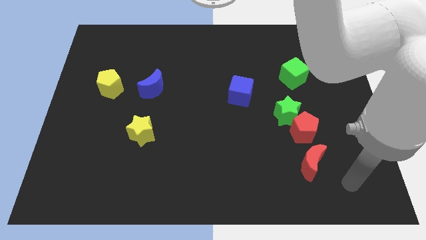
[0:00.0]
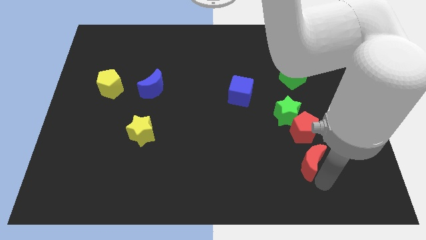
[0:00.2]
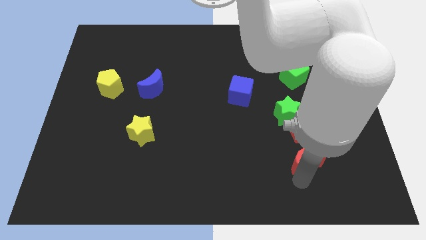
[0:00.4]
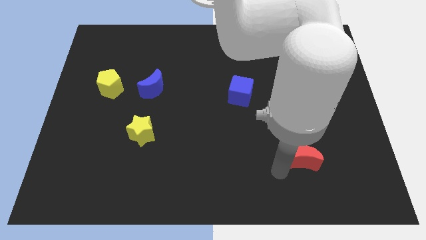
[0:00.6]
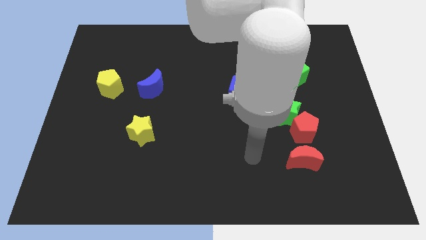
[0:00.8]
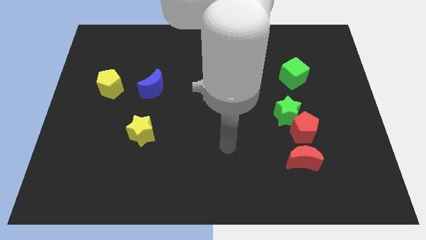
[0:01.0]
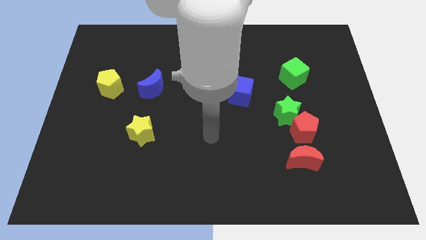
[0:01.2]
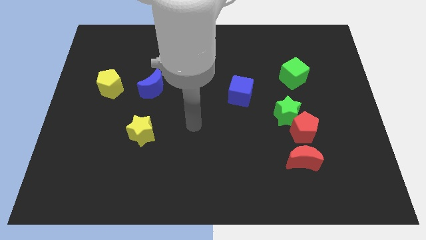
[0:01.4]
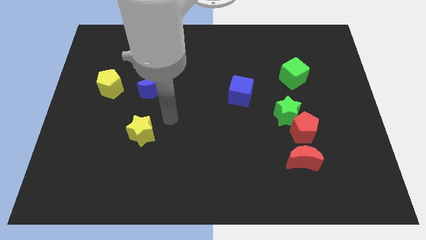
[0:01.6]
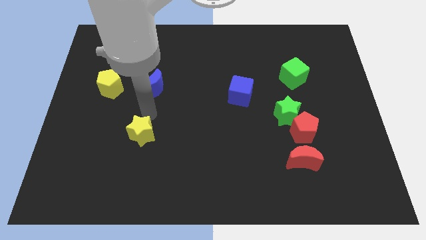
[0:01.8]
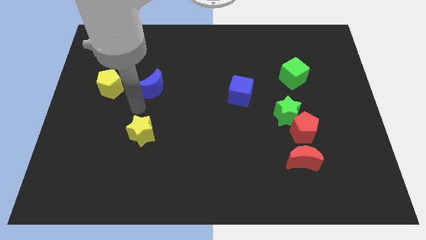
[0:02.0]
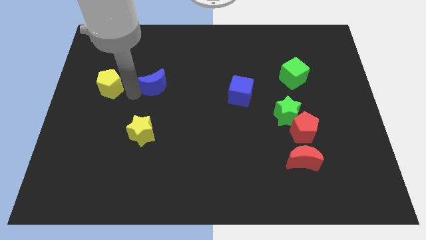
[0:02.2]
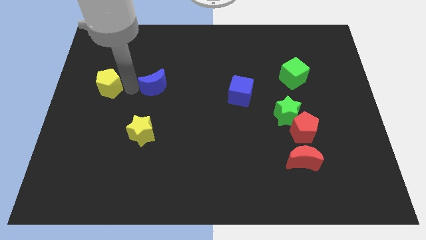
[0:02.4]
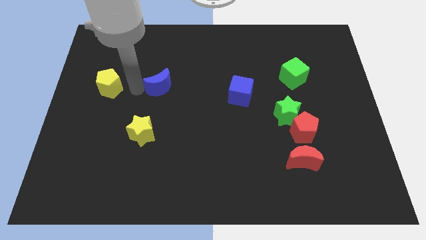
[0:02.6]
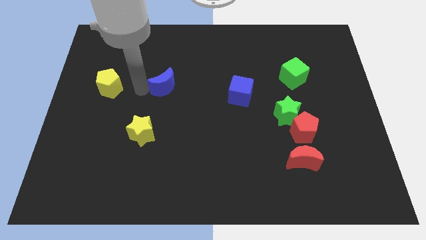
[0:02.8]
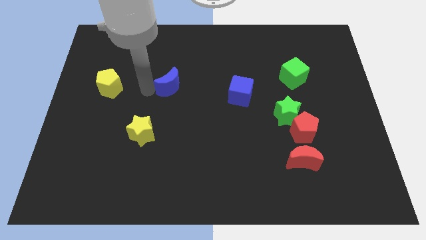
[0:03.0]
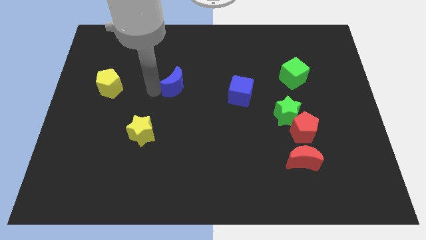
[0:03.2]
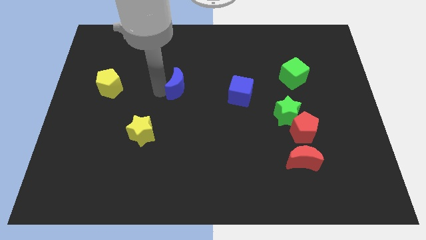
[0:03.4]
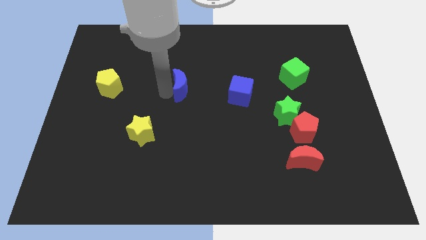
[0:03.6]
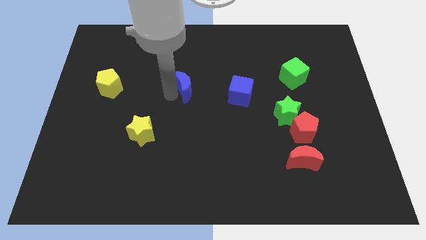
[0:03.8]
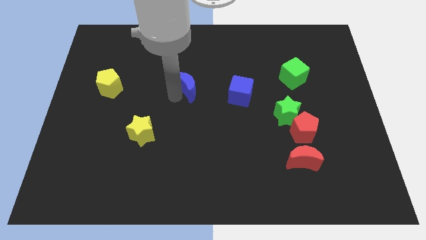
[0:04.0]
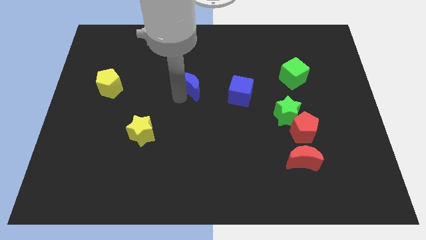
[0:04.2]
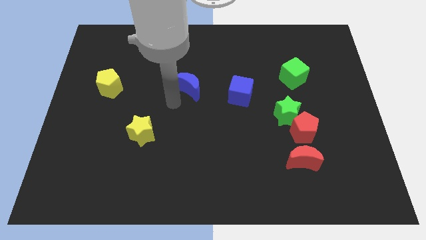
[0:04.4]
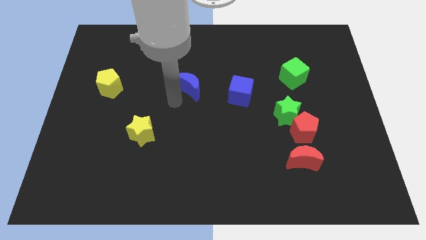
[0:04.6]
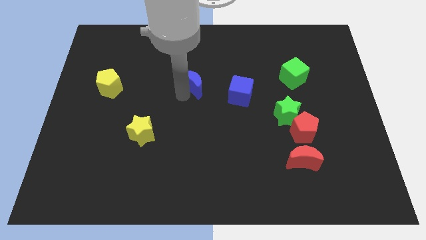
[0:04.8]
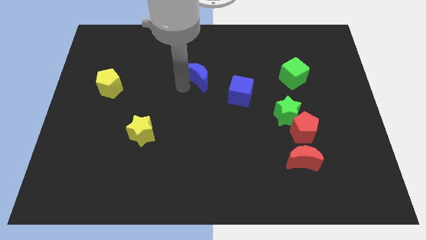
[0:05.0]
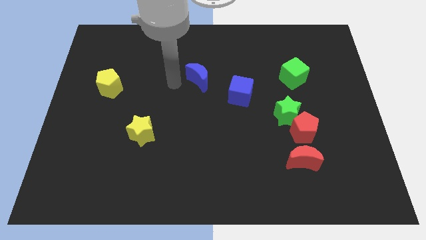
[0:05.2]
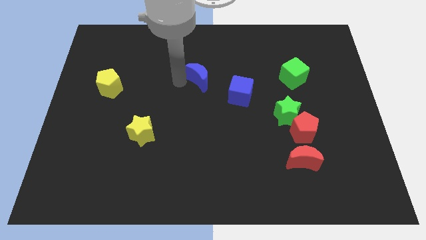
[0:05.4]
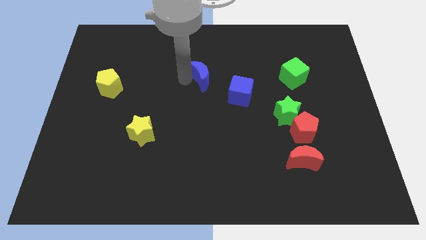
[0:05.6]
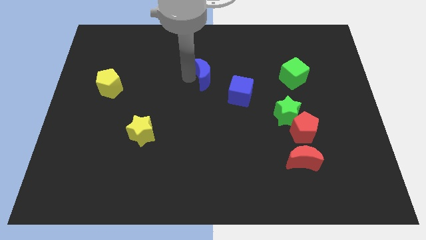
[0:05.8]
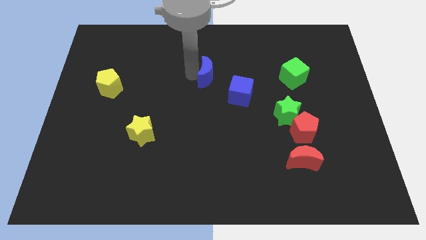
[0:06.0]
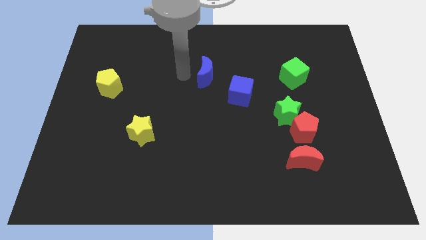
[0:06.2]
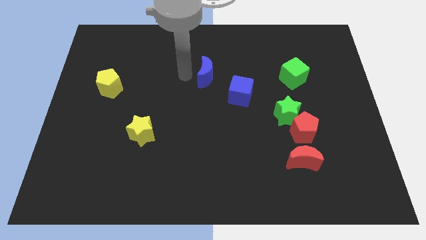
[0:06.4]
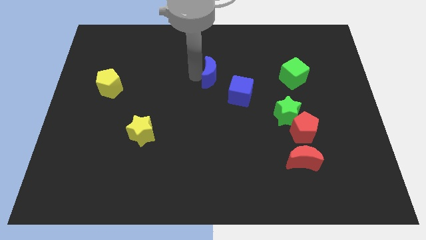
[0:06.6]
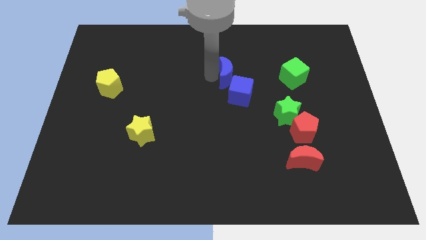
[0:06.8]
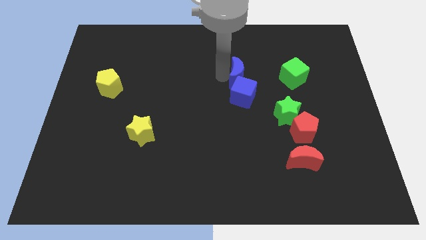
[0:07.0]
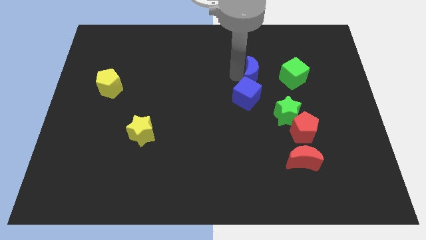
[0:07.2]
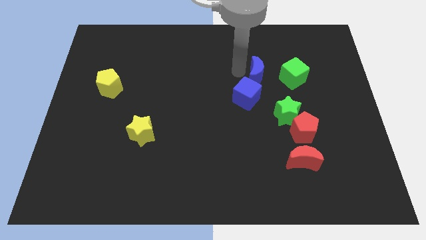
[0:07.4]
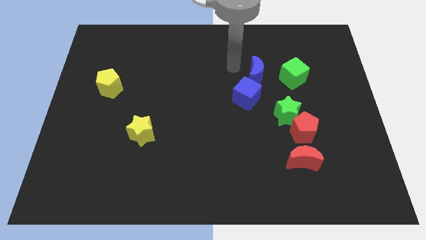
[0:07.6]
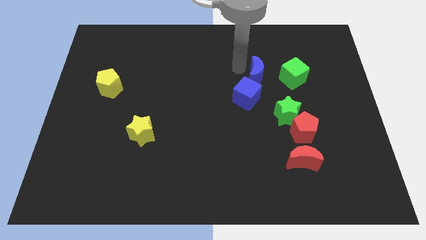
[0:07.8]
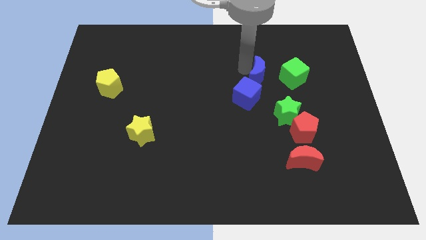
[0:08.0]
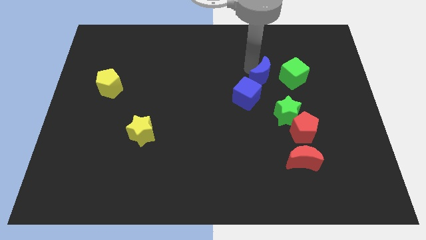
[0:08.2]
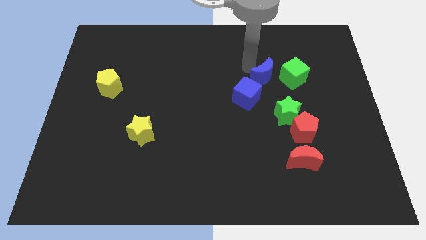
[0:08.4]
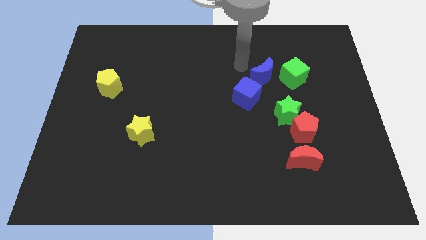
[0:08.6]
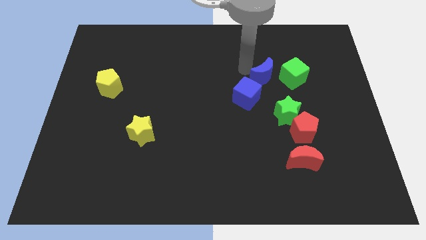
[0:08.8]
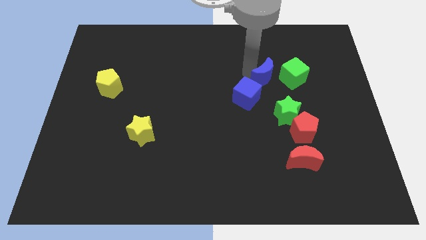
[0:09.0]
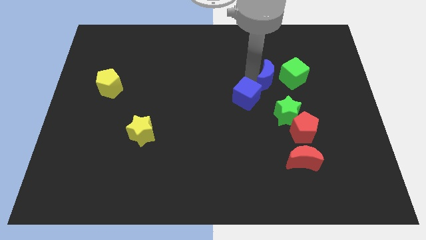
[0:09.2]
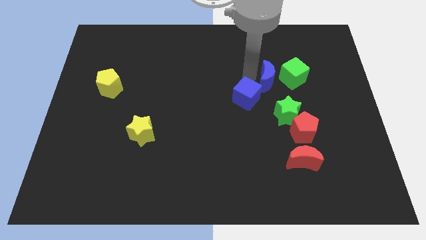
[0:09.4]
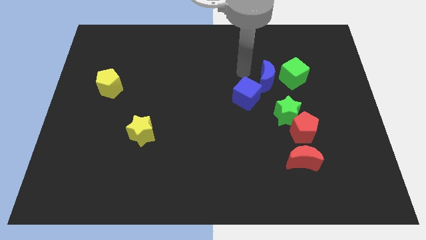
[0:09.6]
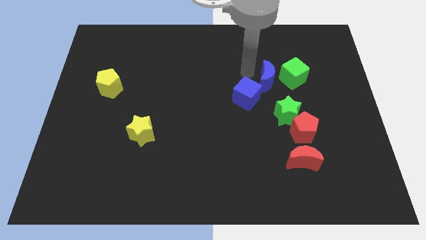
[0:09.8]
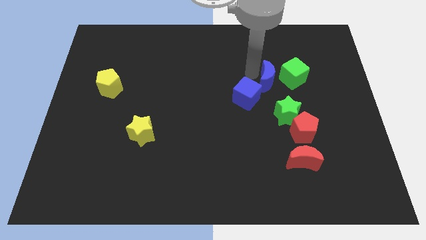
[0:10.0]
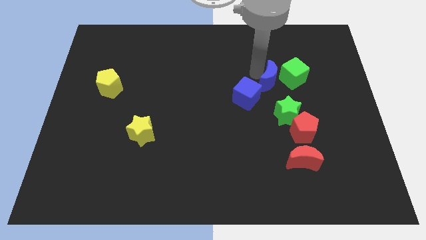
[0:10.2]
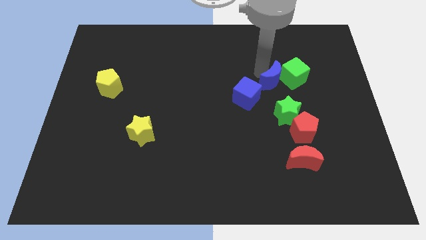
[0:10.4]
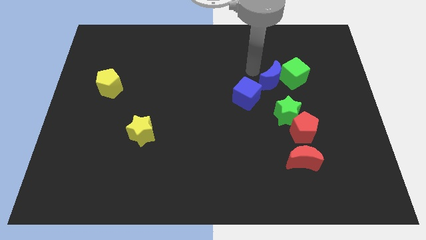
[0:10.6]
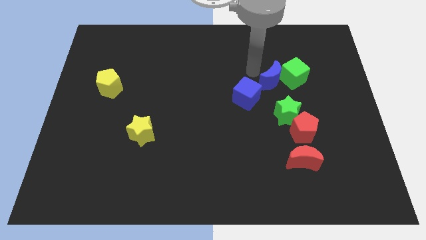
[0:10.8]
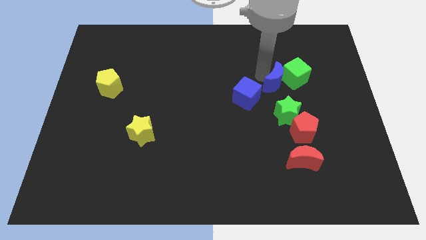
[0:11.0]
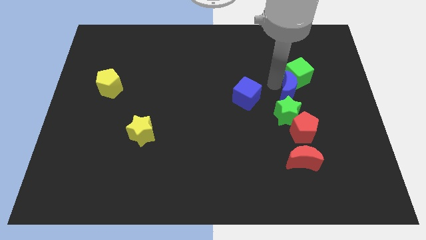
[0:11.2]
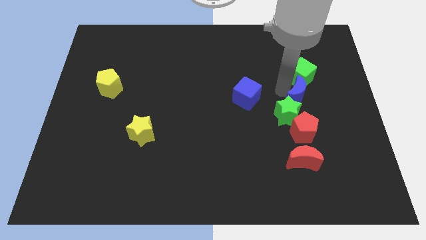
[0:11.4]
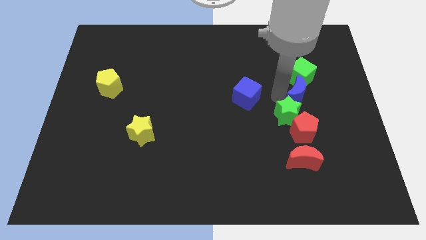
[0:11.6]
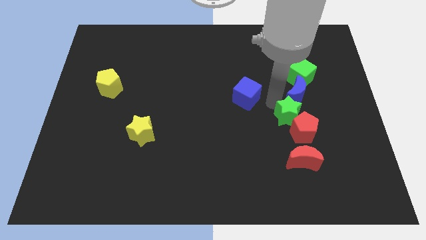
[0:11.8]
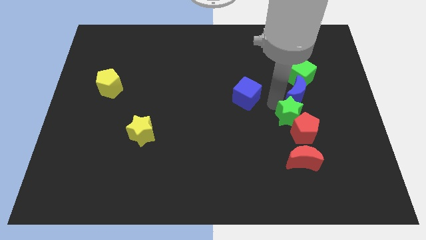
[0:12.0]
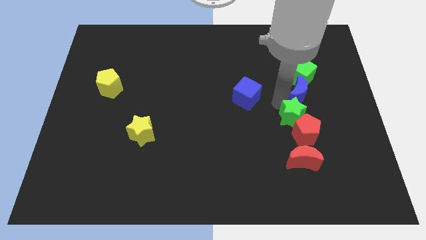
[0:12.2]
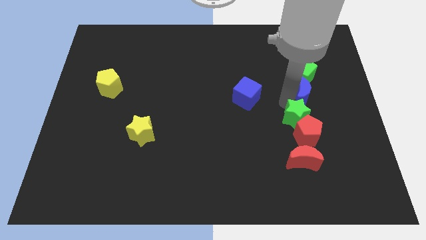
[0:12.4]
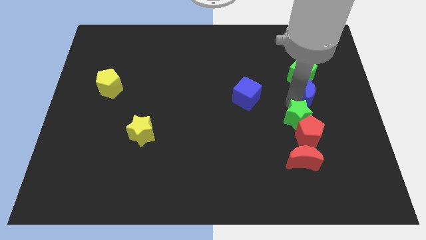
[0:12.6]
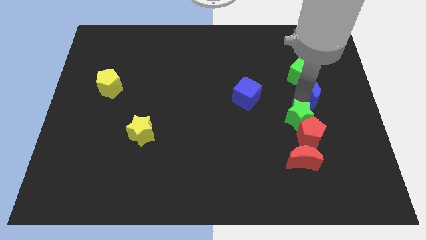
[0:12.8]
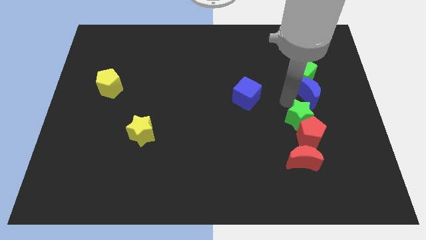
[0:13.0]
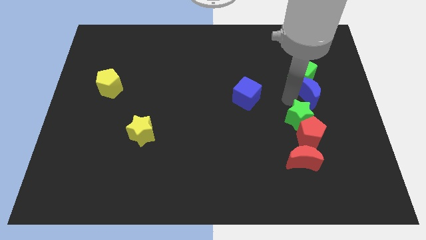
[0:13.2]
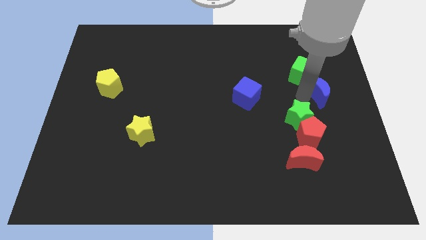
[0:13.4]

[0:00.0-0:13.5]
slide the blue moon to the center right

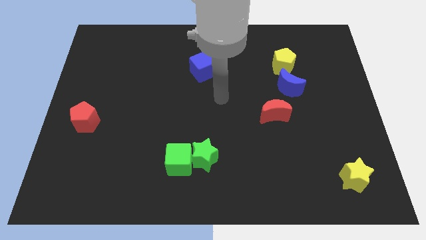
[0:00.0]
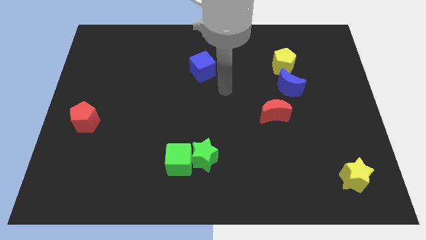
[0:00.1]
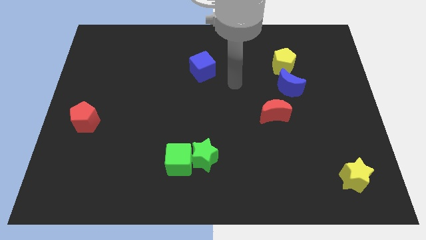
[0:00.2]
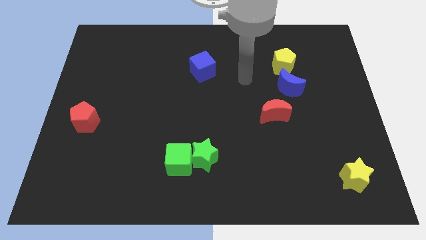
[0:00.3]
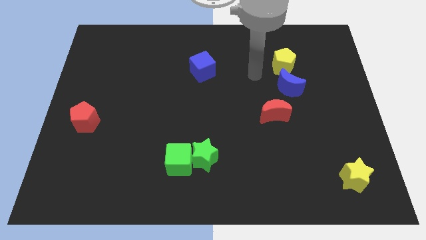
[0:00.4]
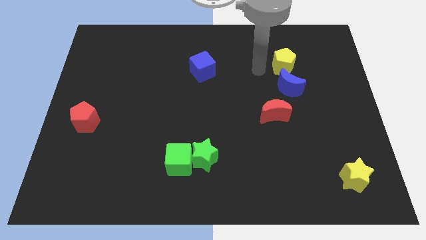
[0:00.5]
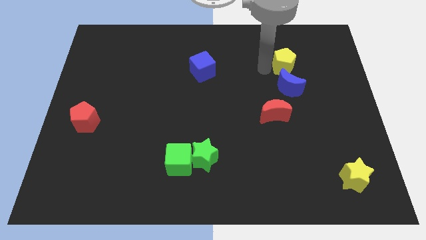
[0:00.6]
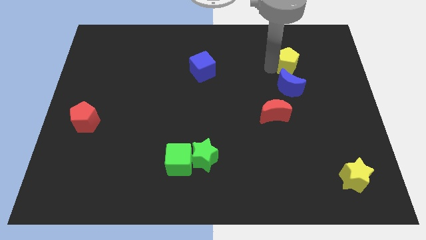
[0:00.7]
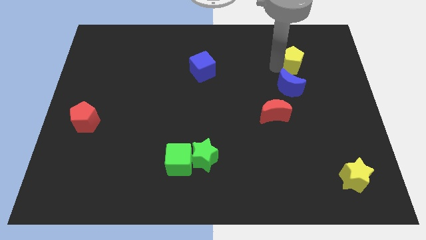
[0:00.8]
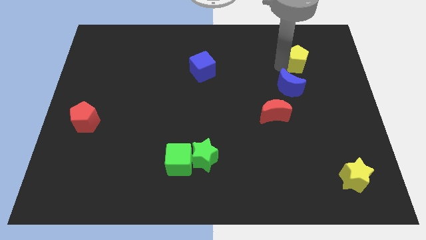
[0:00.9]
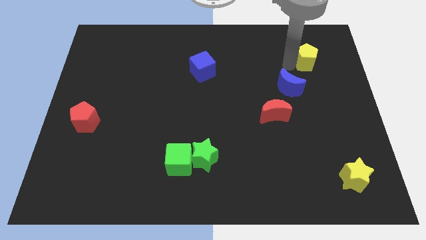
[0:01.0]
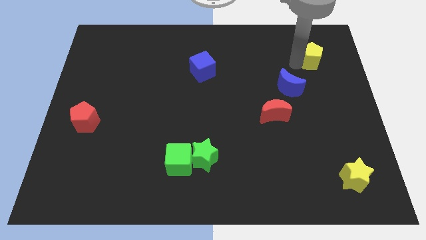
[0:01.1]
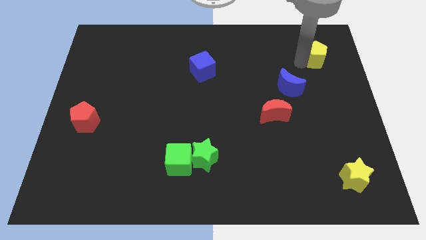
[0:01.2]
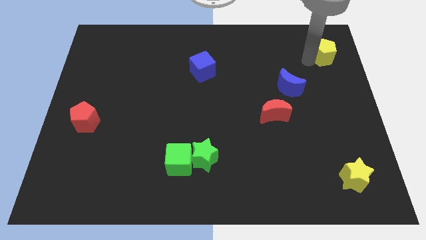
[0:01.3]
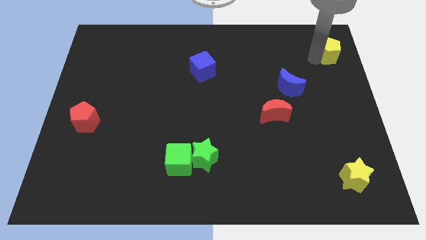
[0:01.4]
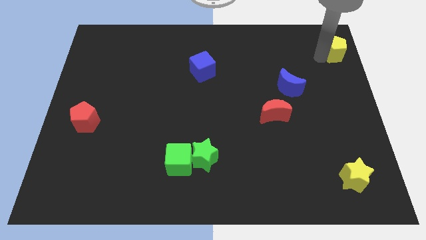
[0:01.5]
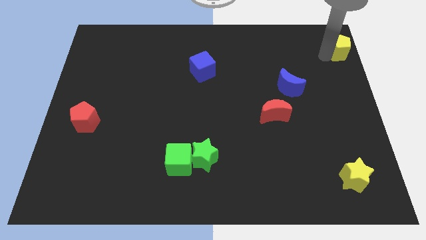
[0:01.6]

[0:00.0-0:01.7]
slide the yellow pentagon to the top right corner
